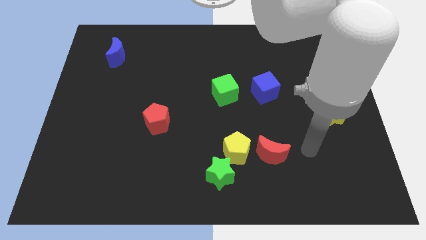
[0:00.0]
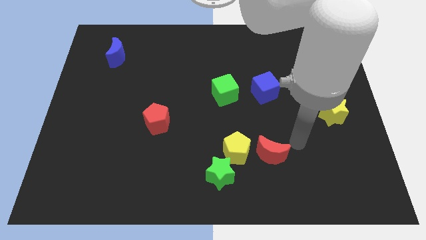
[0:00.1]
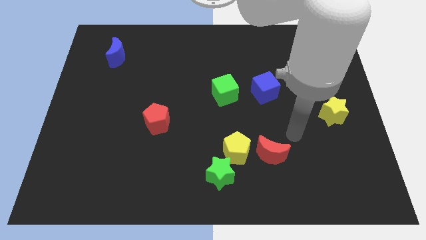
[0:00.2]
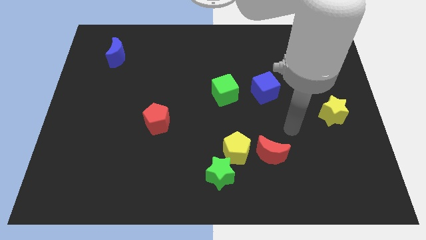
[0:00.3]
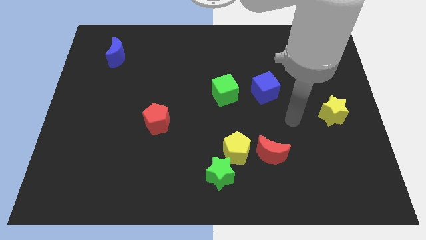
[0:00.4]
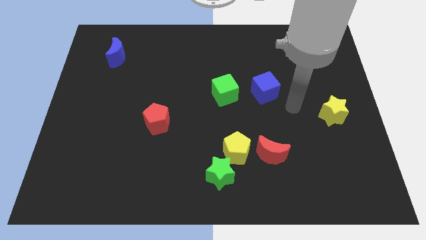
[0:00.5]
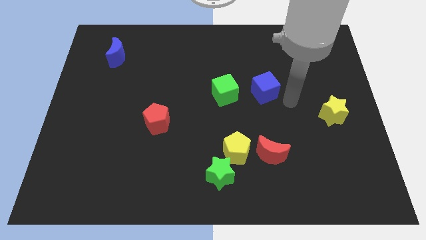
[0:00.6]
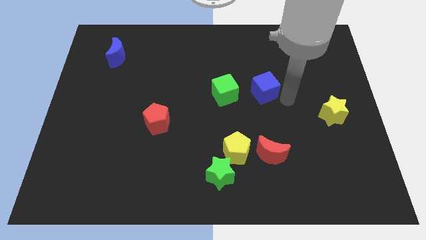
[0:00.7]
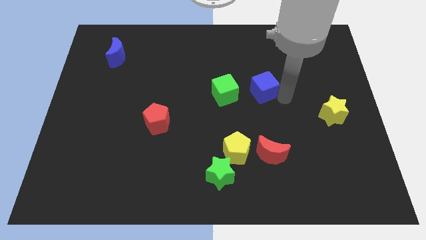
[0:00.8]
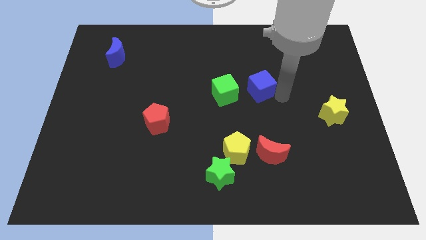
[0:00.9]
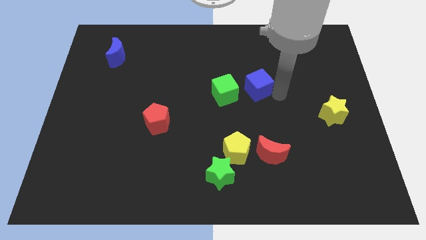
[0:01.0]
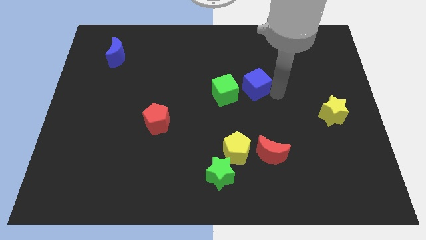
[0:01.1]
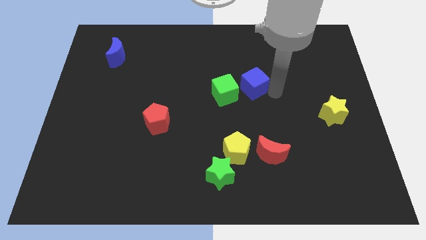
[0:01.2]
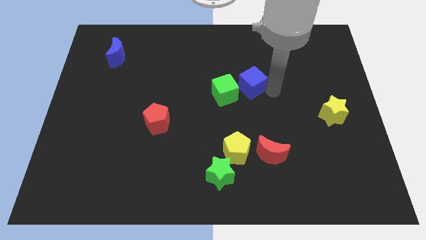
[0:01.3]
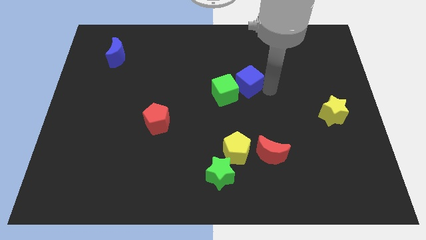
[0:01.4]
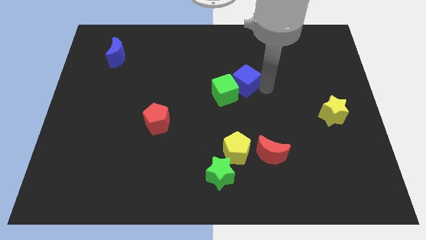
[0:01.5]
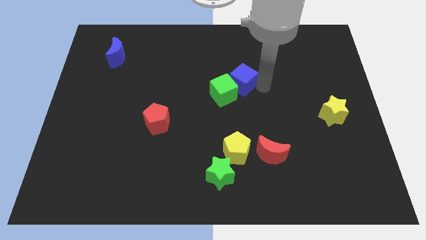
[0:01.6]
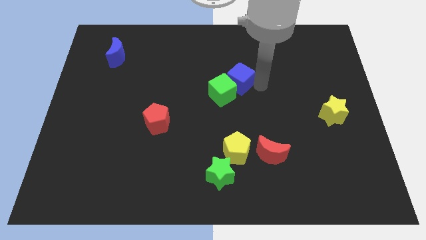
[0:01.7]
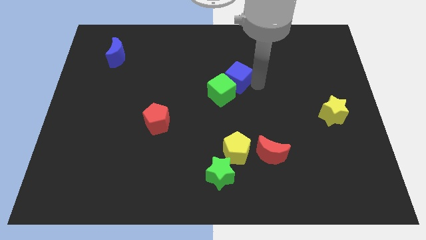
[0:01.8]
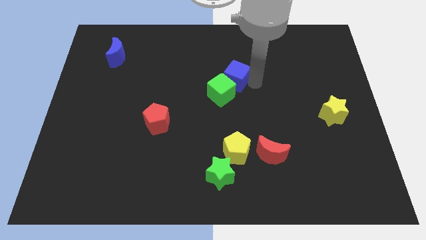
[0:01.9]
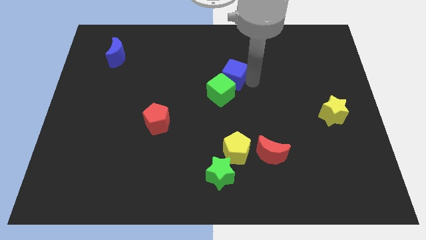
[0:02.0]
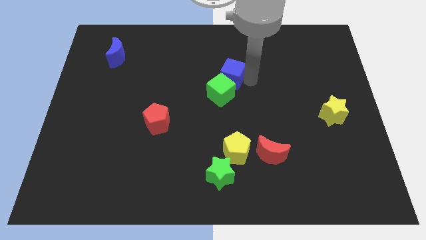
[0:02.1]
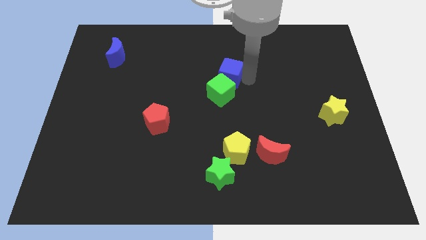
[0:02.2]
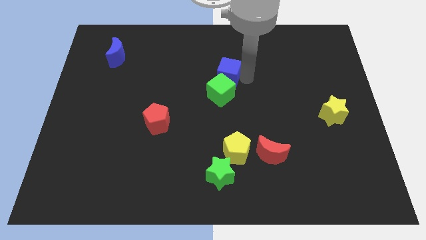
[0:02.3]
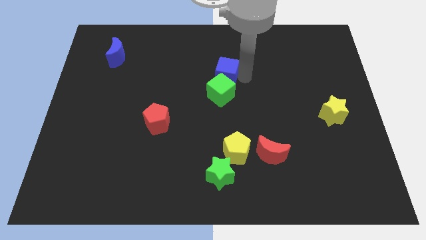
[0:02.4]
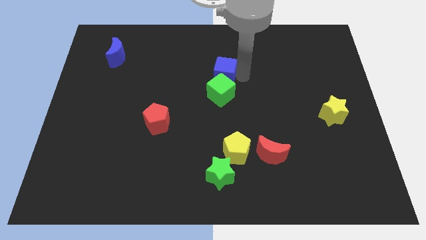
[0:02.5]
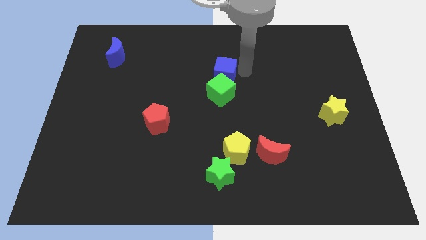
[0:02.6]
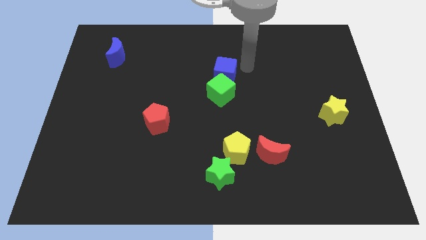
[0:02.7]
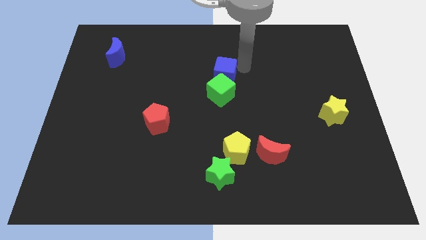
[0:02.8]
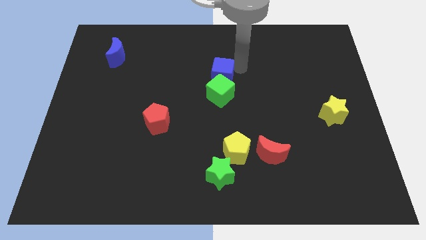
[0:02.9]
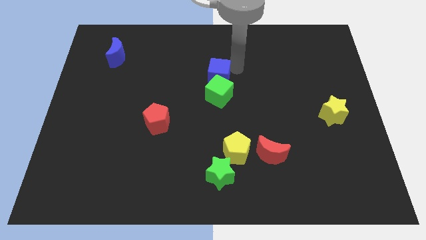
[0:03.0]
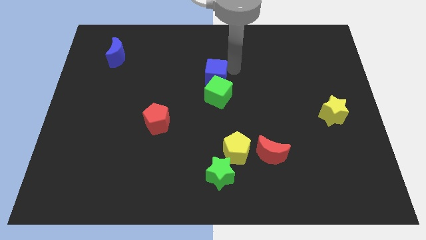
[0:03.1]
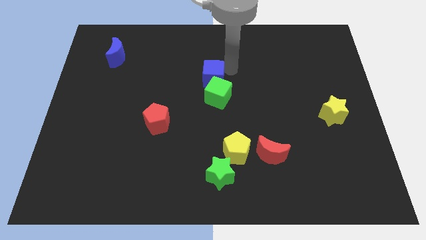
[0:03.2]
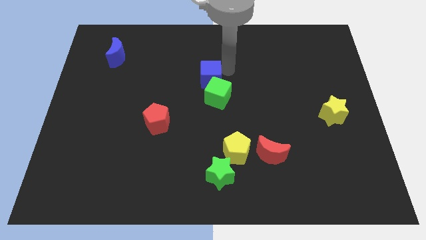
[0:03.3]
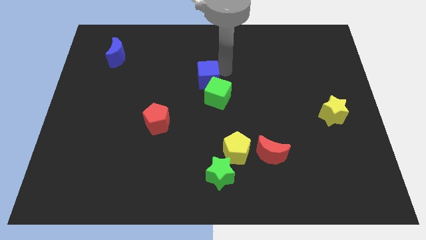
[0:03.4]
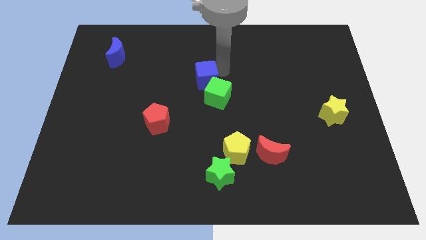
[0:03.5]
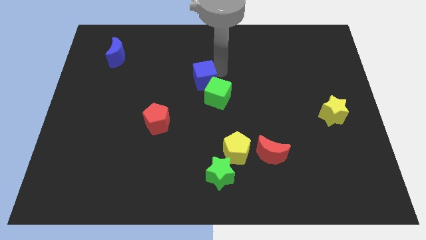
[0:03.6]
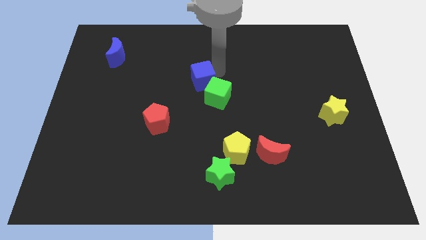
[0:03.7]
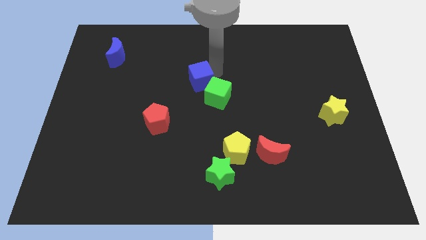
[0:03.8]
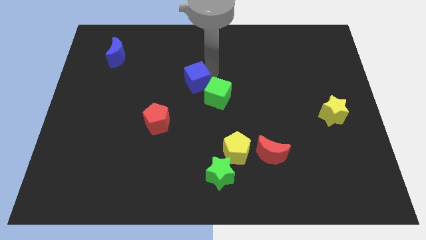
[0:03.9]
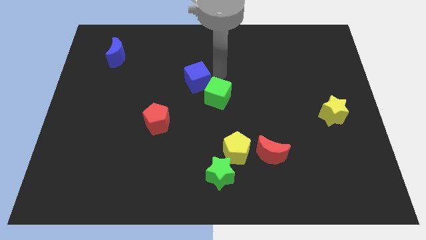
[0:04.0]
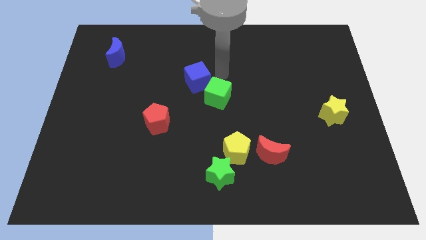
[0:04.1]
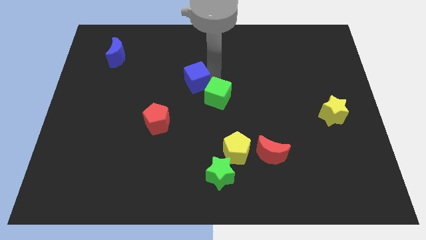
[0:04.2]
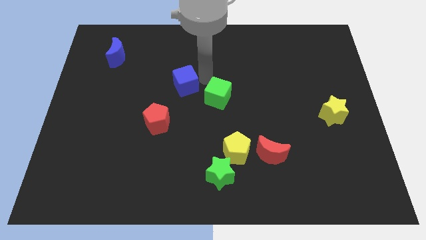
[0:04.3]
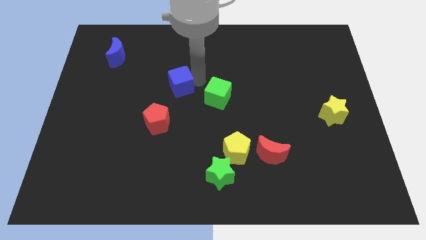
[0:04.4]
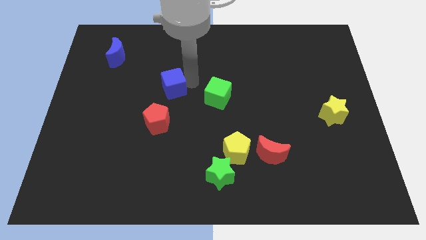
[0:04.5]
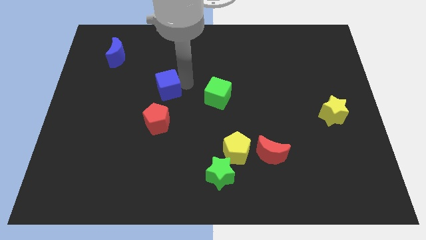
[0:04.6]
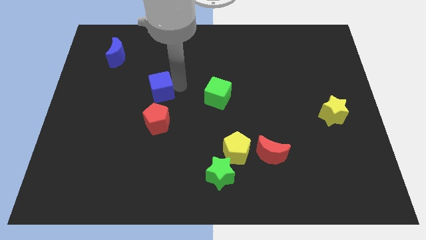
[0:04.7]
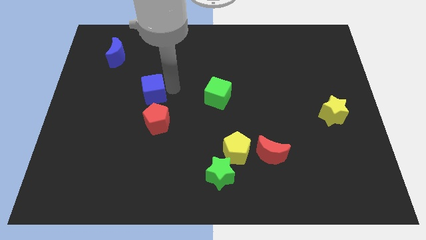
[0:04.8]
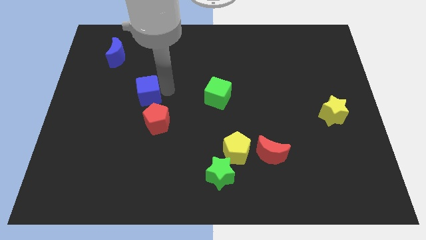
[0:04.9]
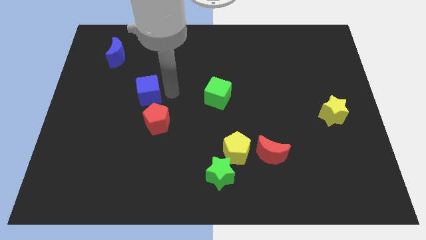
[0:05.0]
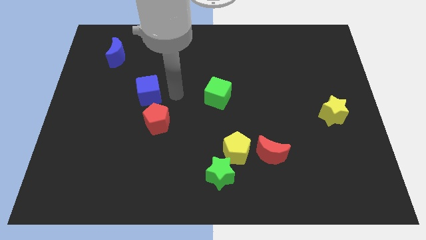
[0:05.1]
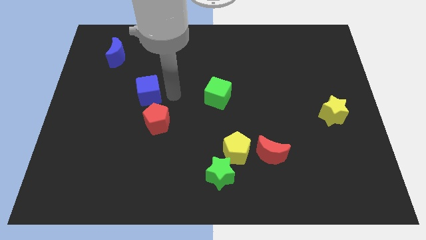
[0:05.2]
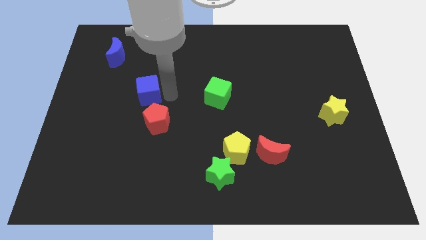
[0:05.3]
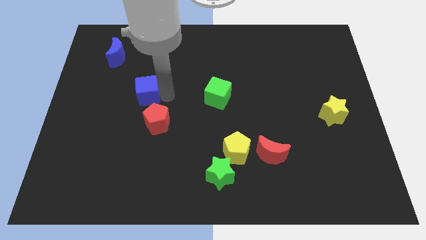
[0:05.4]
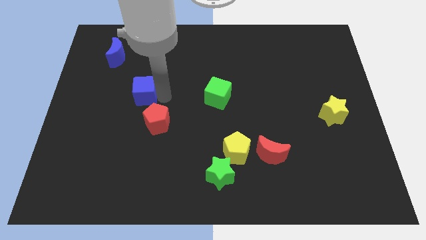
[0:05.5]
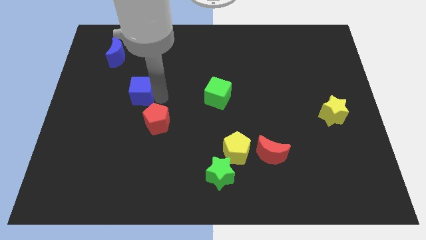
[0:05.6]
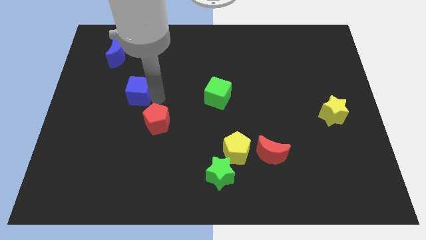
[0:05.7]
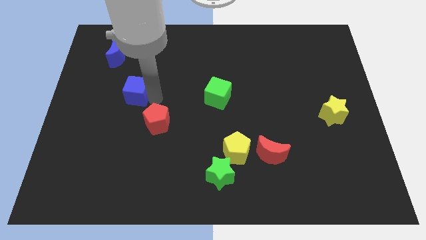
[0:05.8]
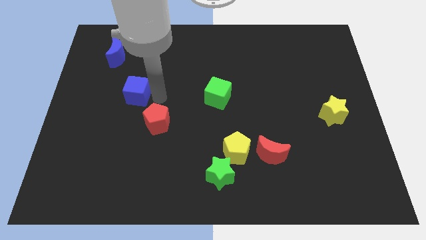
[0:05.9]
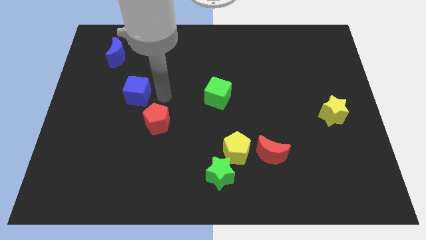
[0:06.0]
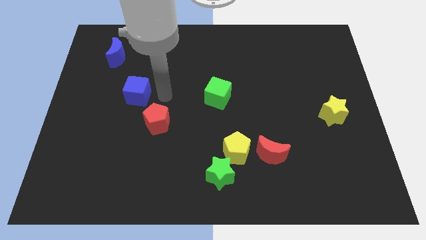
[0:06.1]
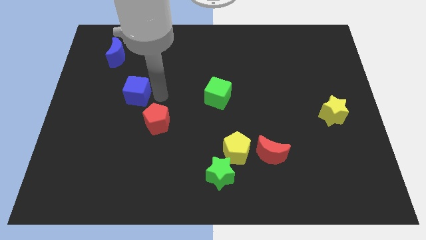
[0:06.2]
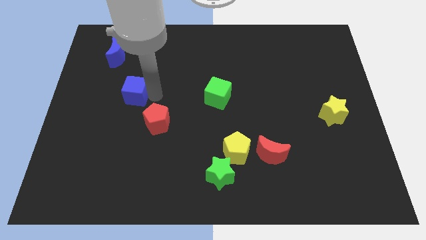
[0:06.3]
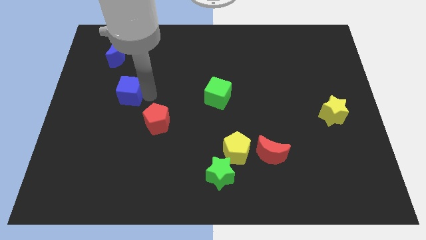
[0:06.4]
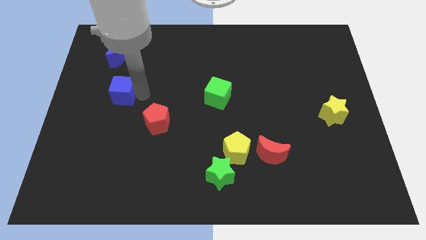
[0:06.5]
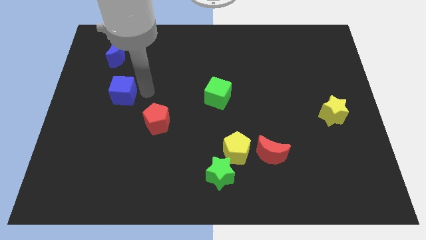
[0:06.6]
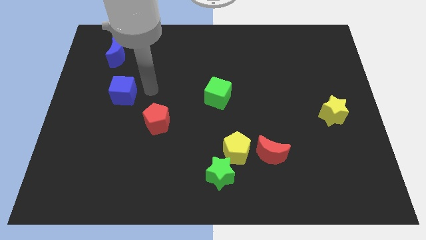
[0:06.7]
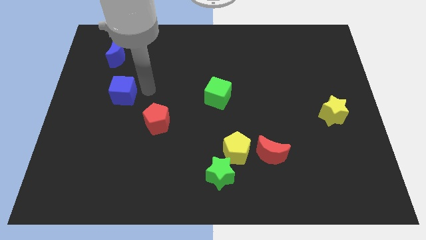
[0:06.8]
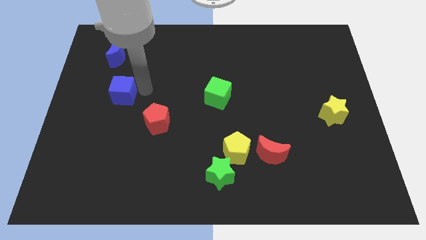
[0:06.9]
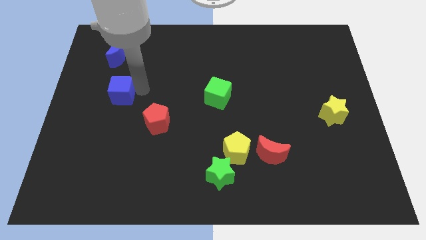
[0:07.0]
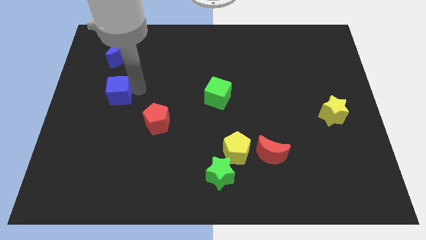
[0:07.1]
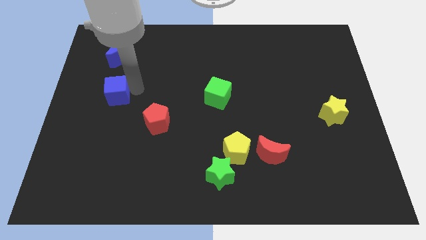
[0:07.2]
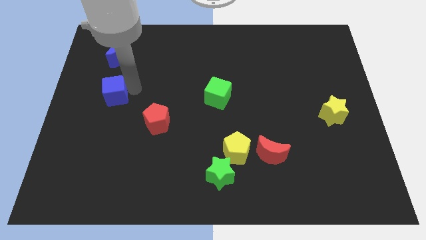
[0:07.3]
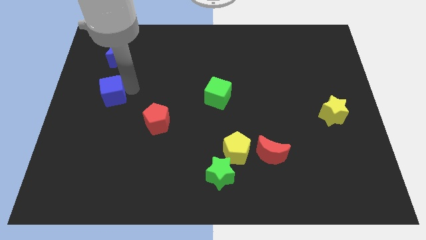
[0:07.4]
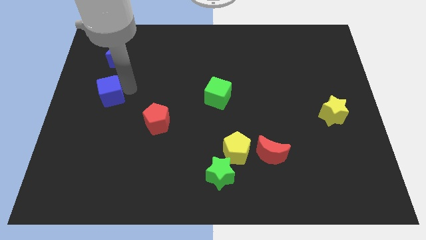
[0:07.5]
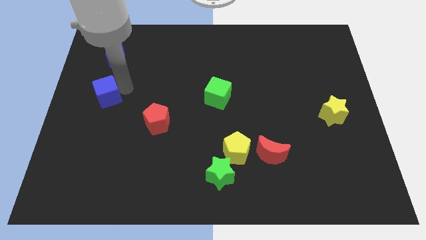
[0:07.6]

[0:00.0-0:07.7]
slide the blue cube to the center left
